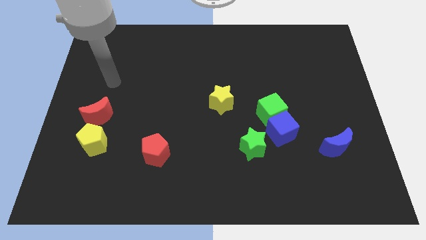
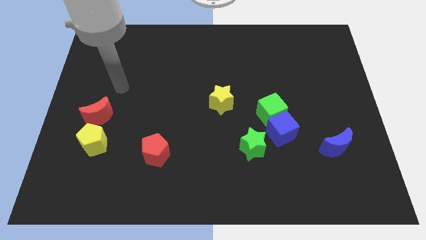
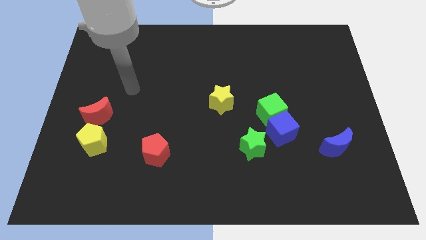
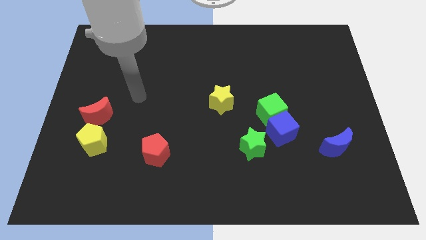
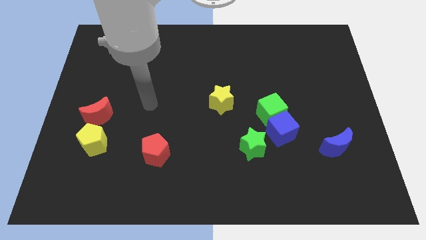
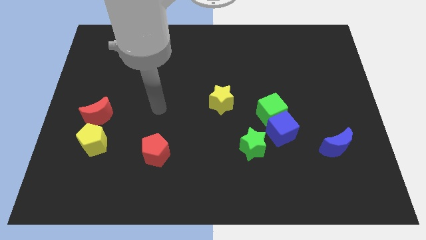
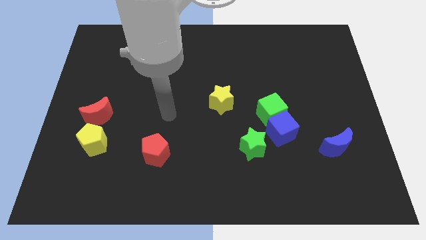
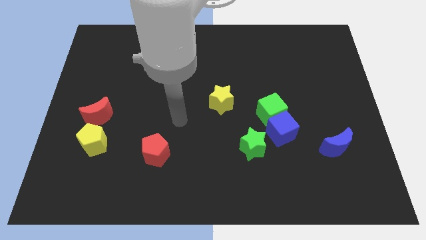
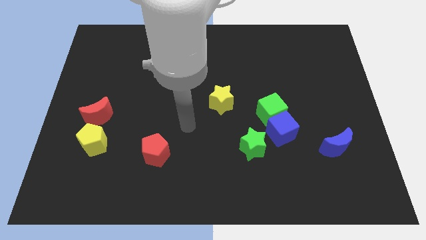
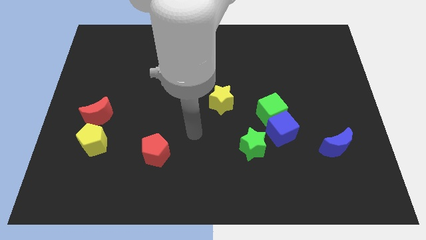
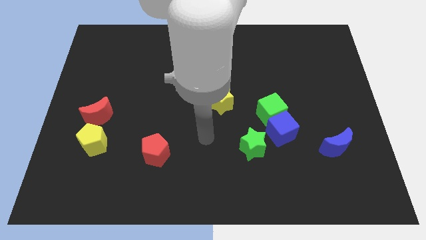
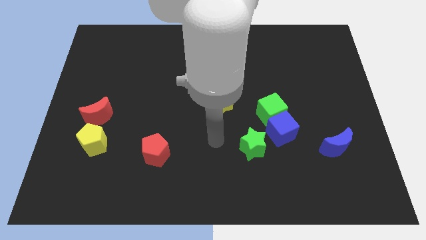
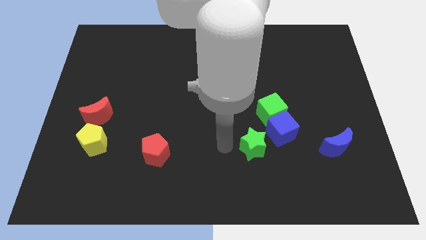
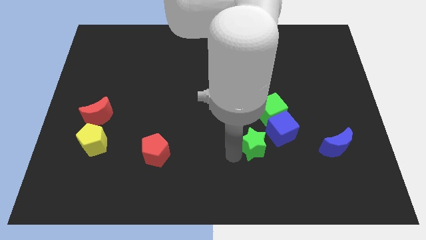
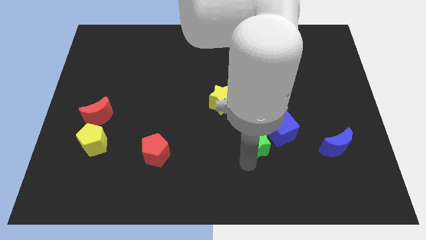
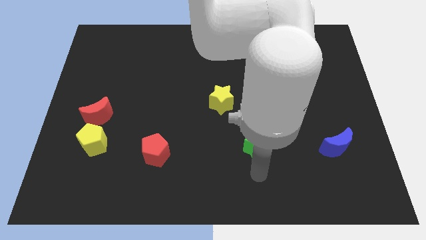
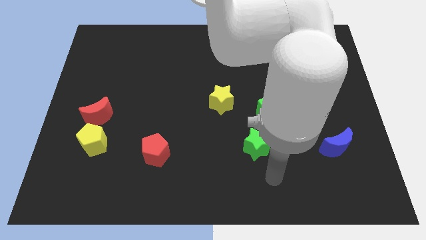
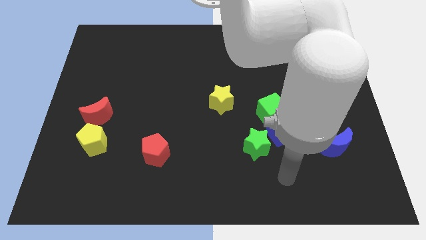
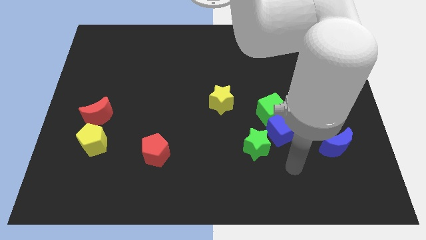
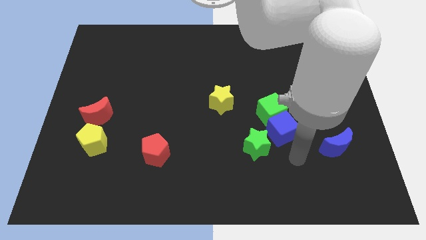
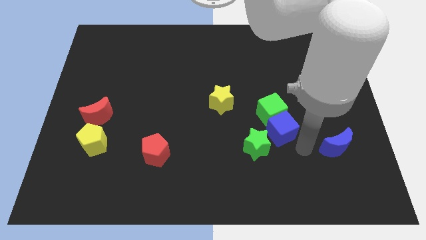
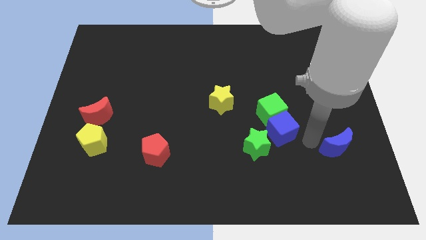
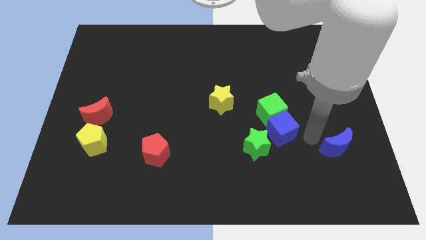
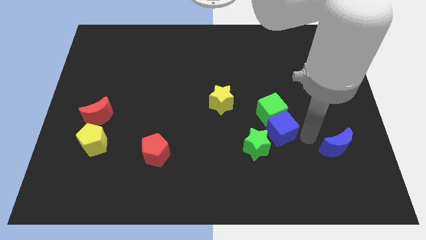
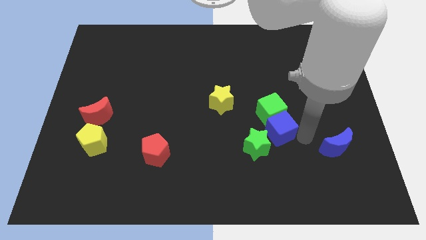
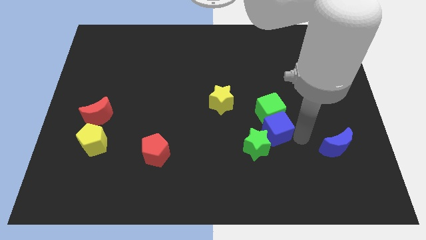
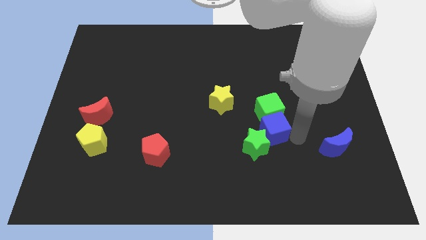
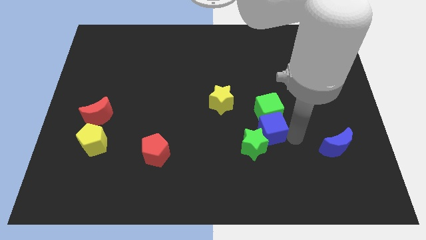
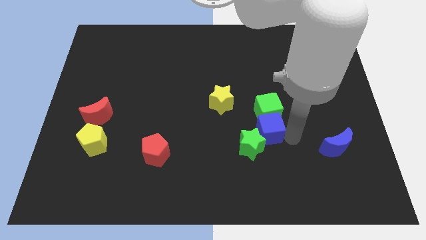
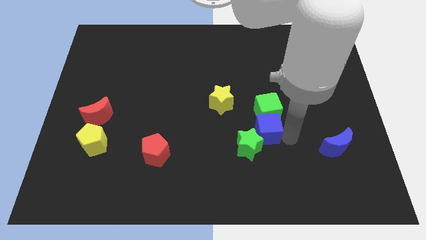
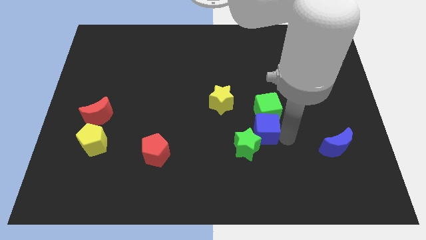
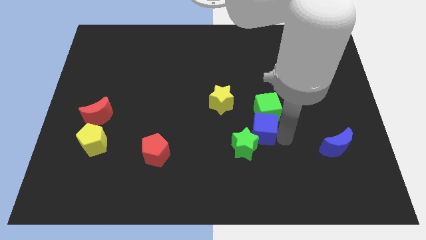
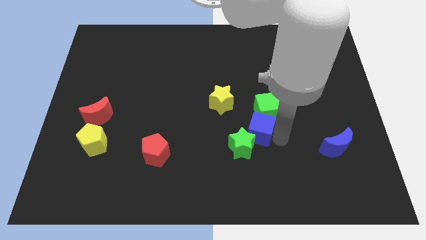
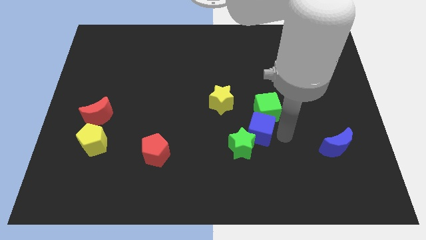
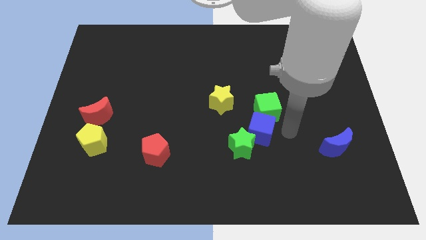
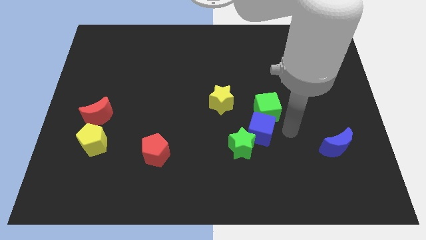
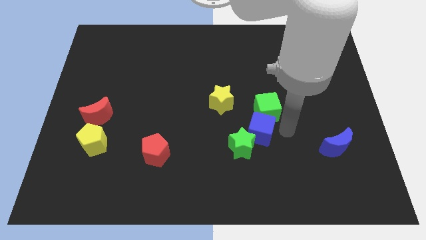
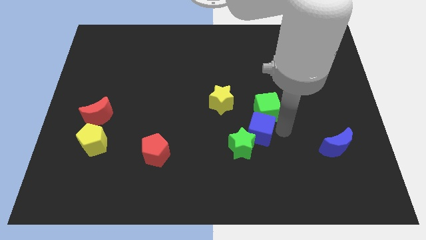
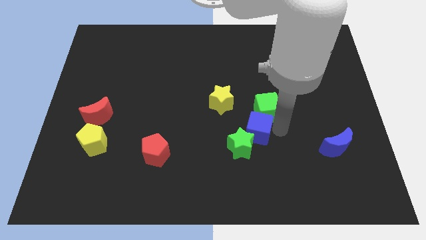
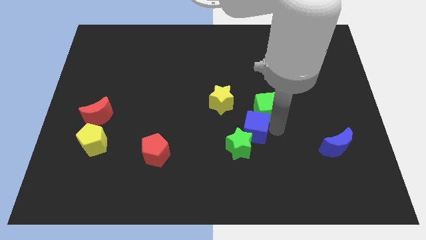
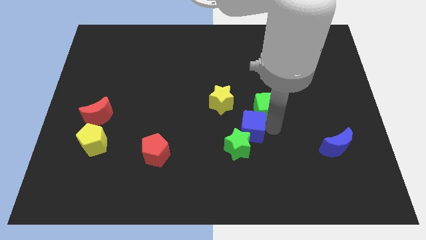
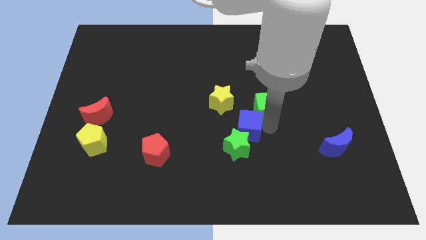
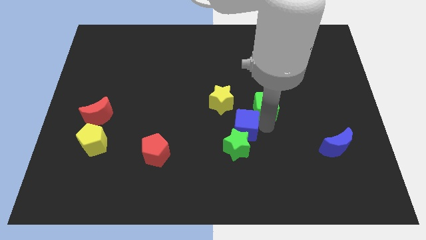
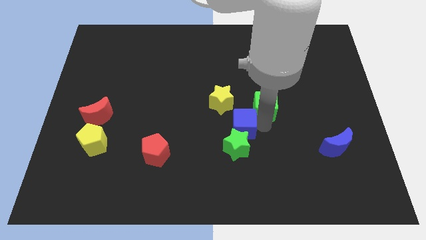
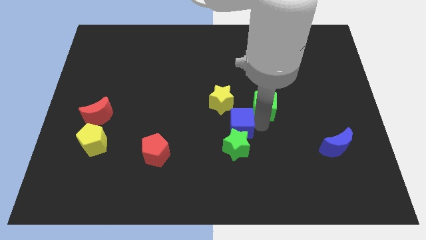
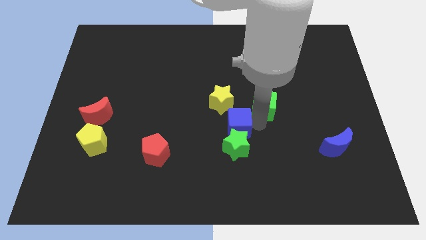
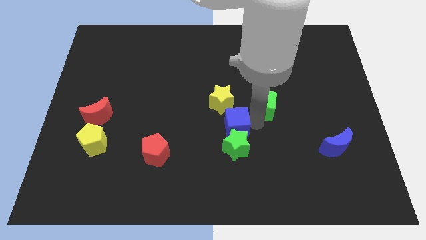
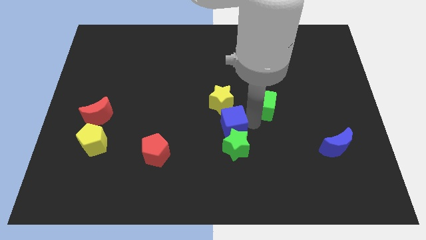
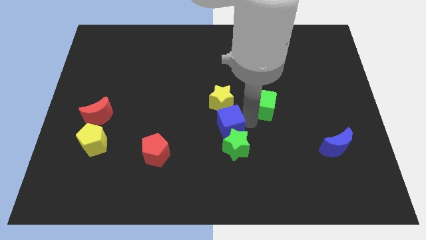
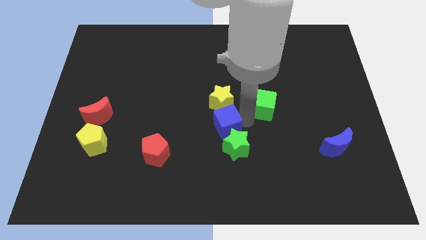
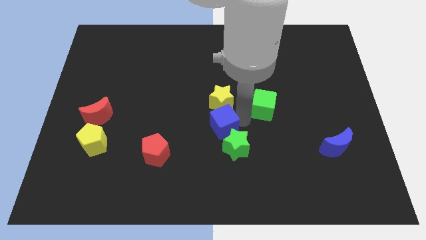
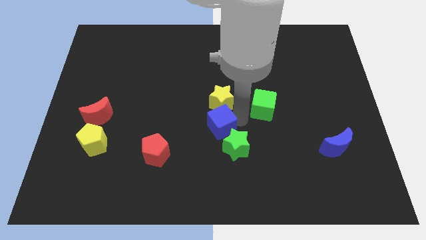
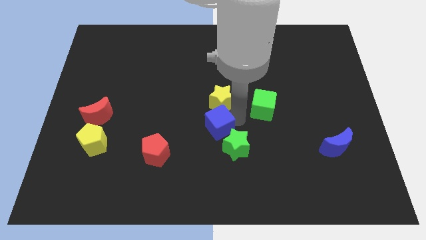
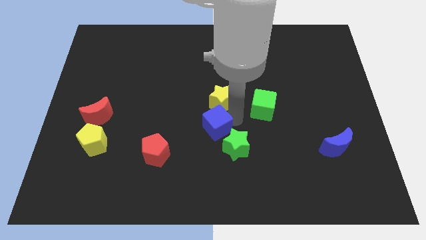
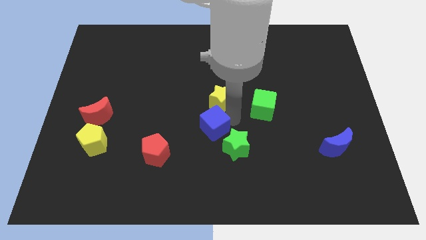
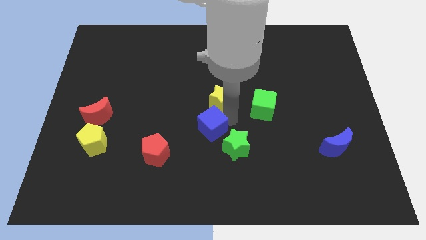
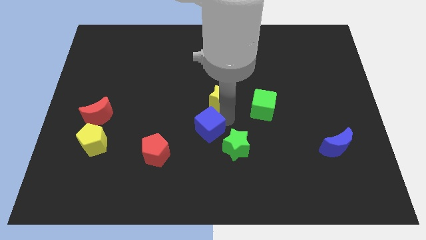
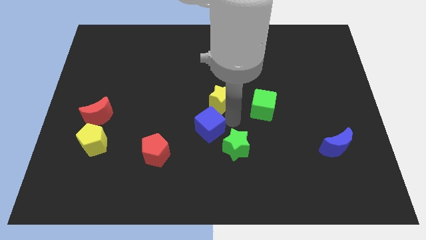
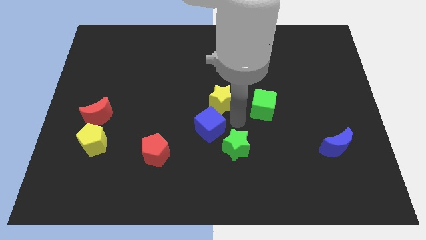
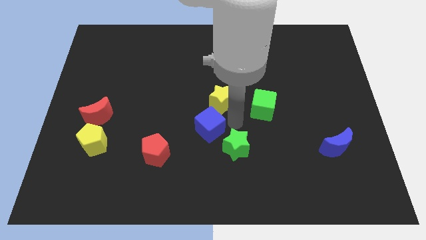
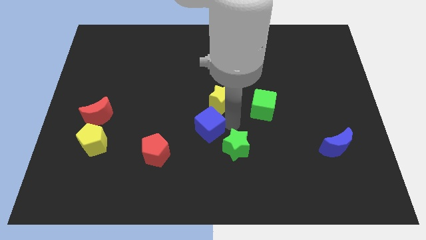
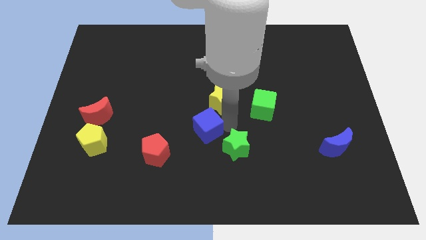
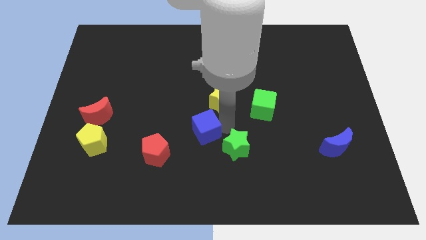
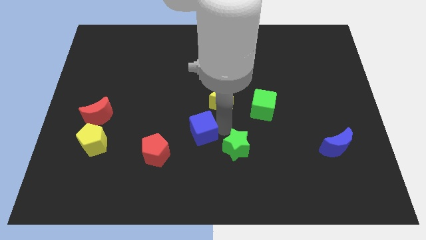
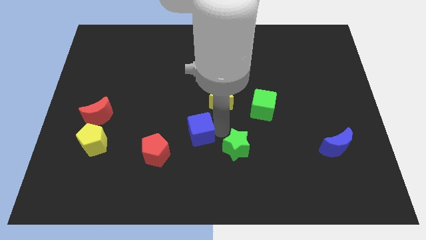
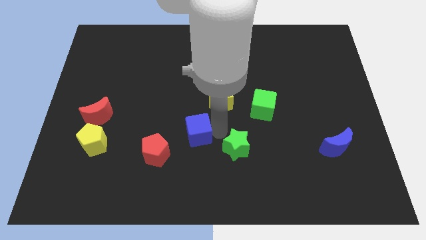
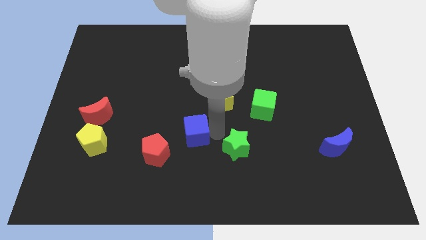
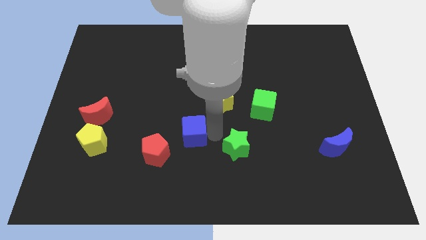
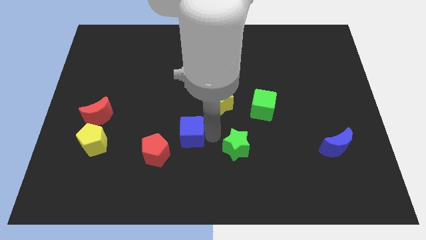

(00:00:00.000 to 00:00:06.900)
move the blue cube to the left

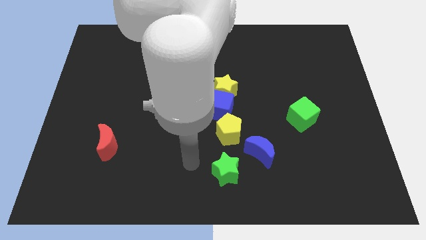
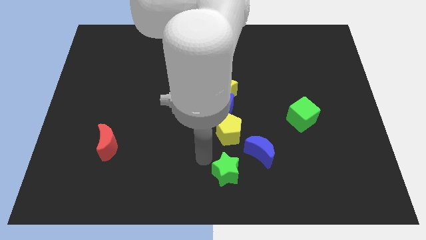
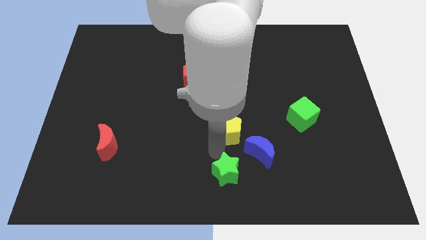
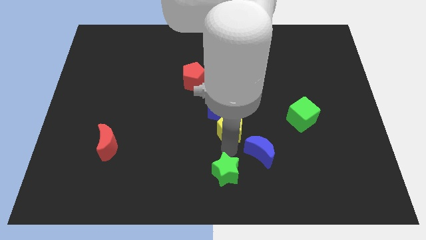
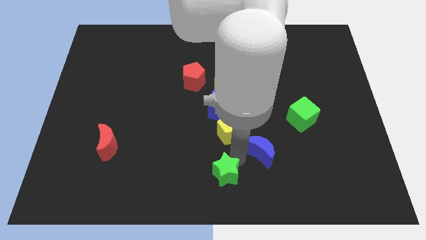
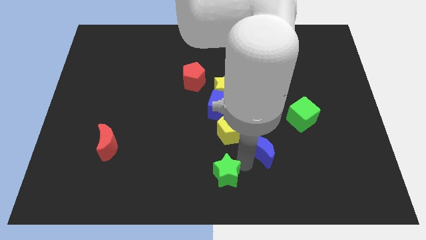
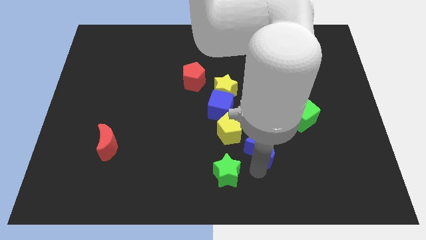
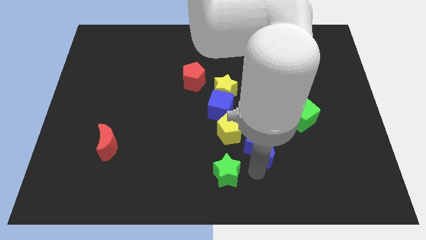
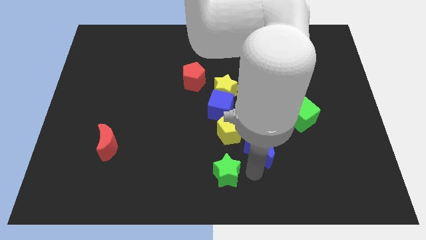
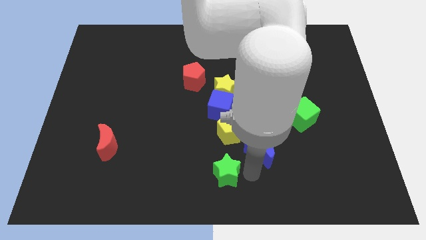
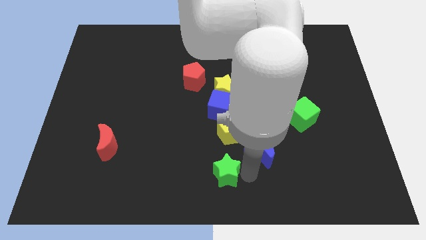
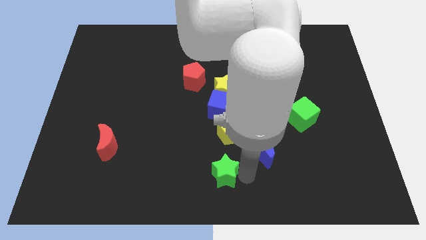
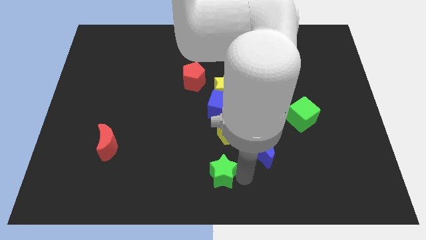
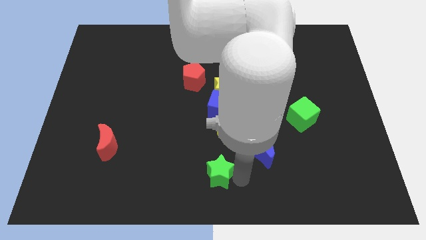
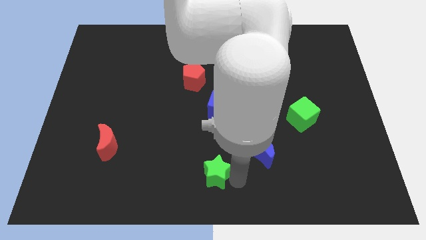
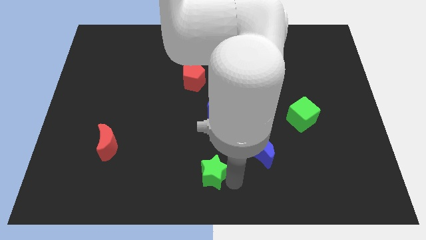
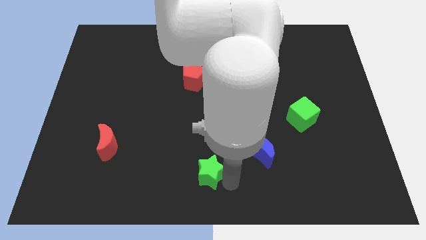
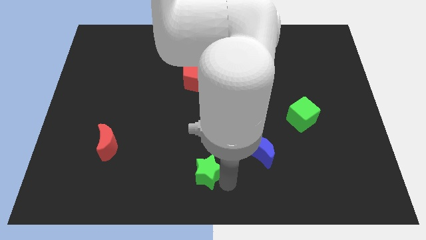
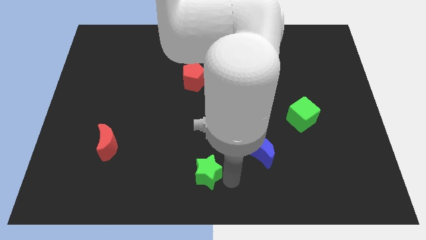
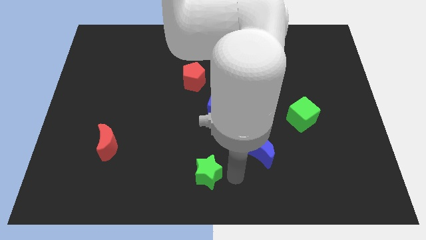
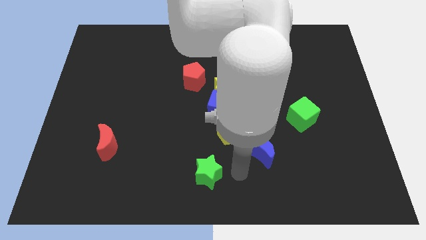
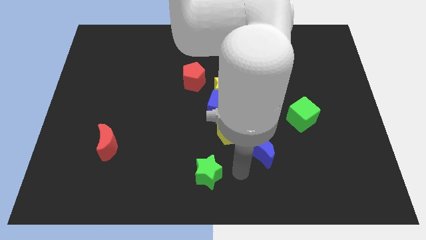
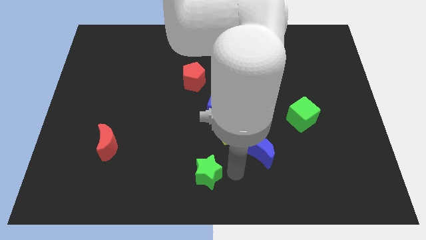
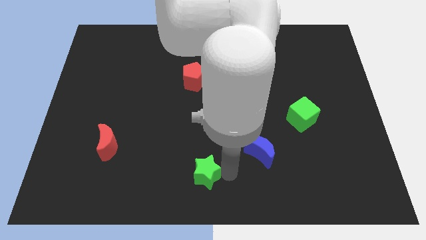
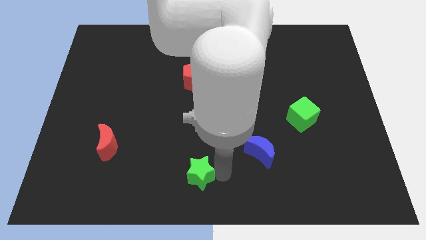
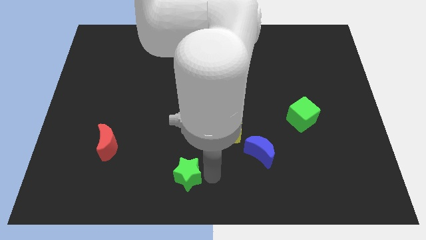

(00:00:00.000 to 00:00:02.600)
move the green star left a little
